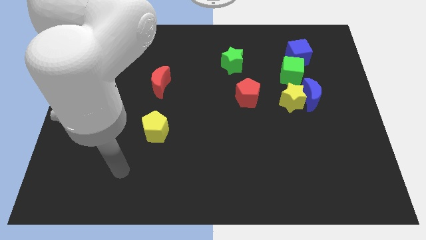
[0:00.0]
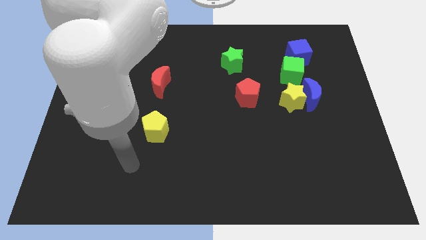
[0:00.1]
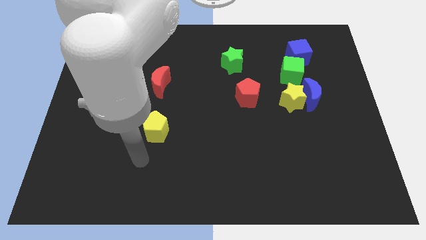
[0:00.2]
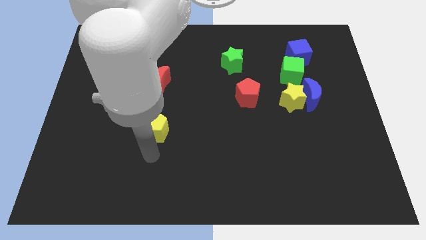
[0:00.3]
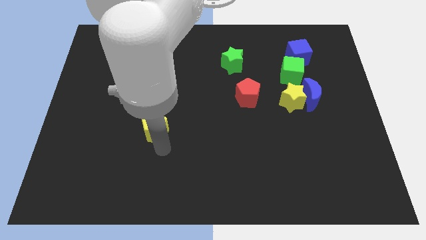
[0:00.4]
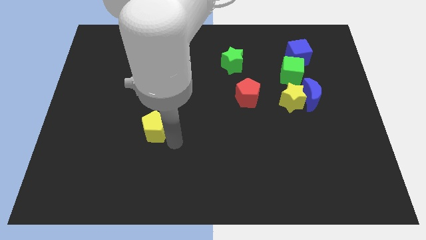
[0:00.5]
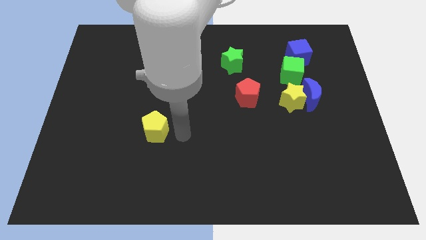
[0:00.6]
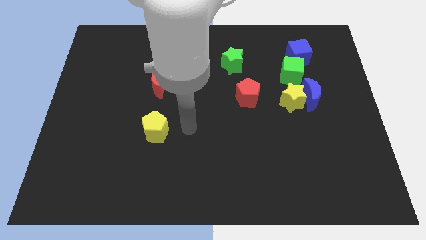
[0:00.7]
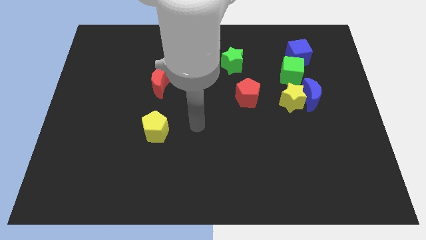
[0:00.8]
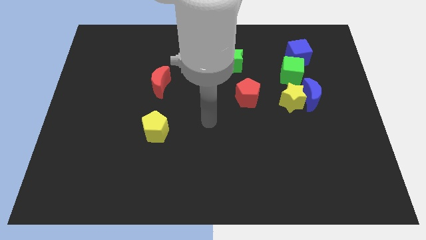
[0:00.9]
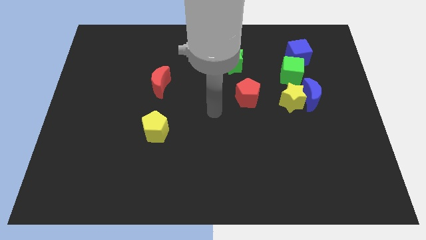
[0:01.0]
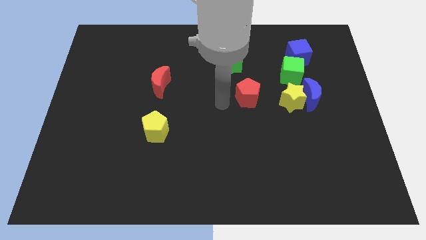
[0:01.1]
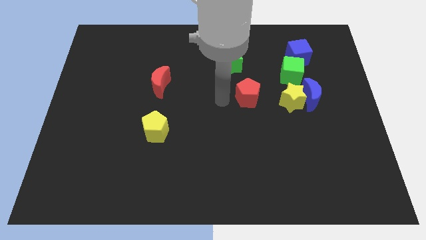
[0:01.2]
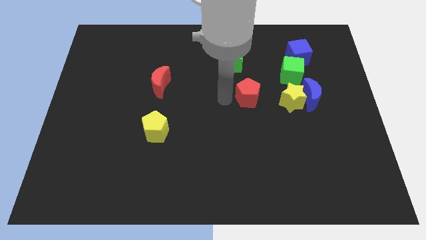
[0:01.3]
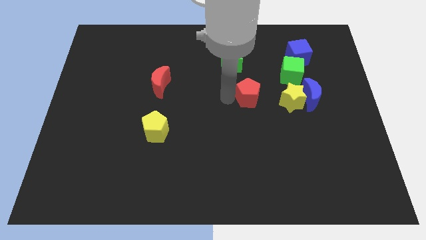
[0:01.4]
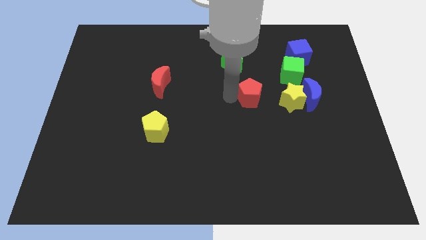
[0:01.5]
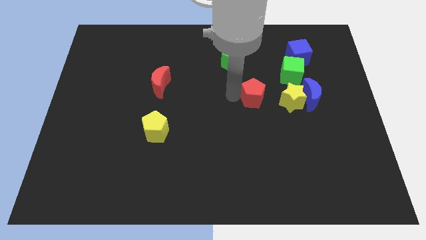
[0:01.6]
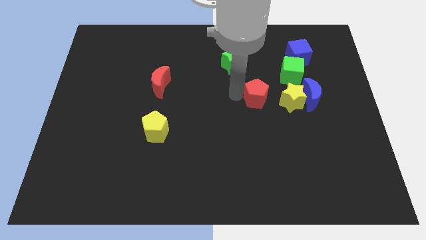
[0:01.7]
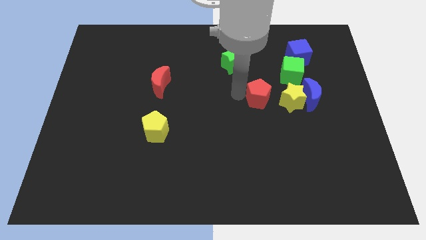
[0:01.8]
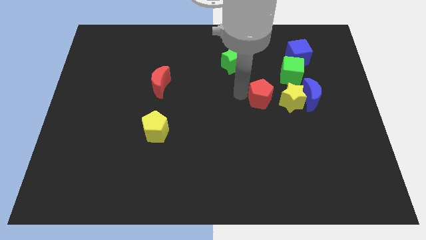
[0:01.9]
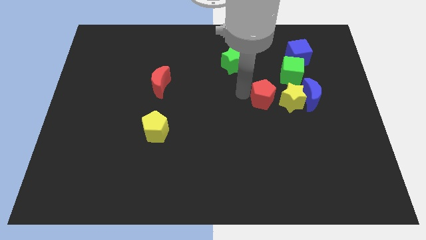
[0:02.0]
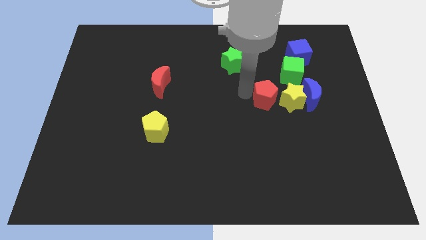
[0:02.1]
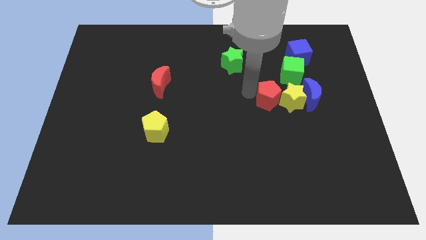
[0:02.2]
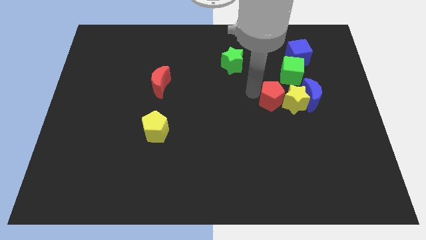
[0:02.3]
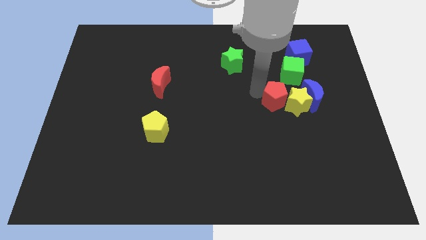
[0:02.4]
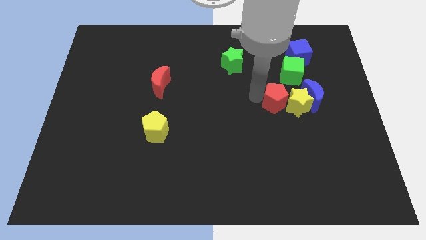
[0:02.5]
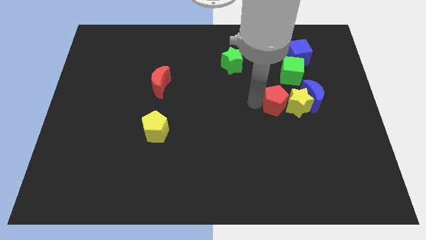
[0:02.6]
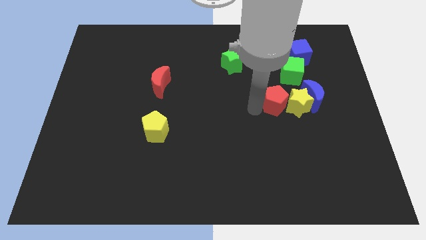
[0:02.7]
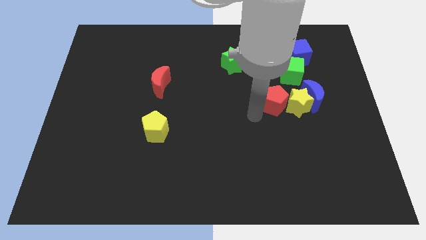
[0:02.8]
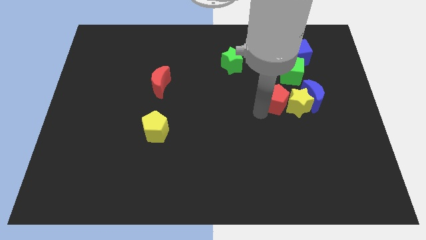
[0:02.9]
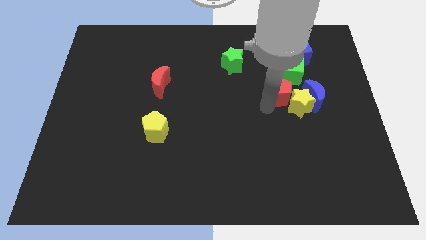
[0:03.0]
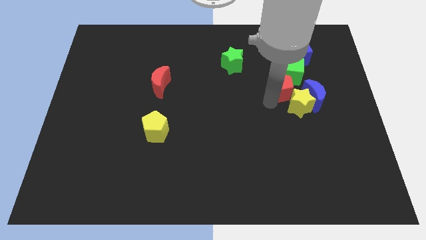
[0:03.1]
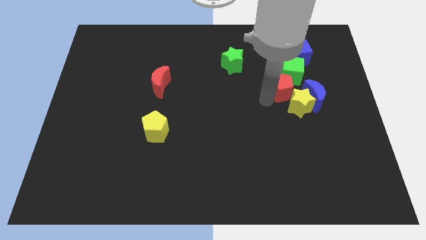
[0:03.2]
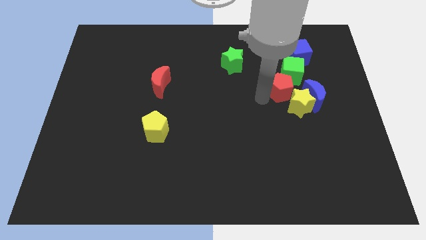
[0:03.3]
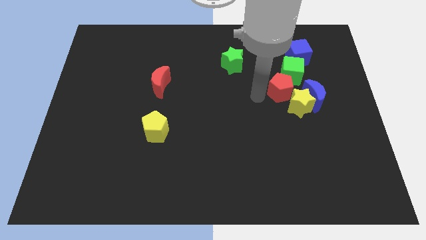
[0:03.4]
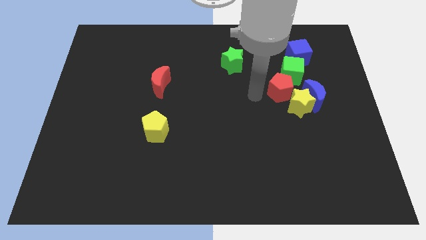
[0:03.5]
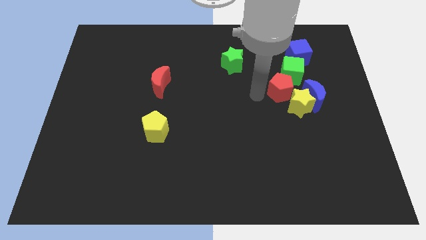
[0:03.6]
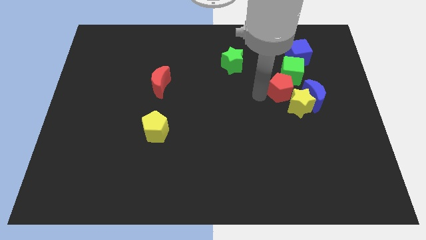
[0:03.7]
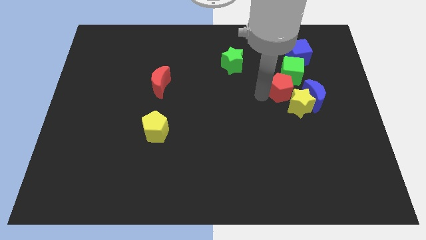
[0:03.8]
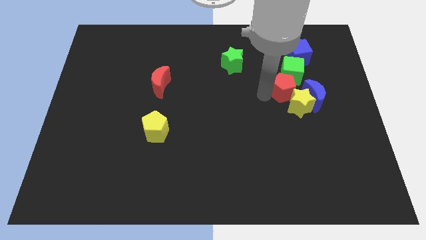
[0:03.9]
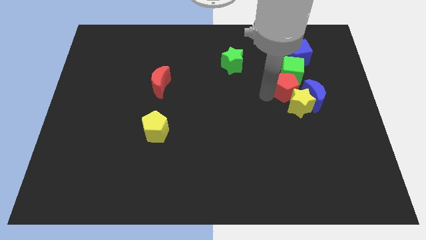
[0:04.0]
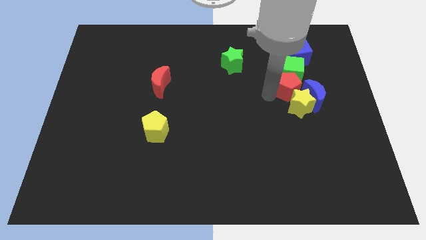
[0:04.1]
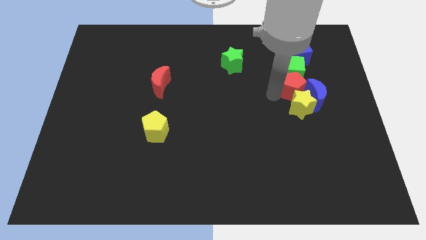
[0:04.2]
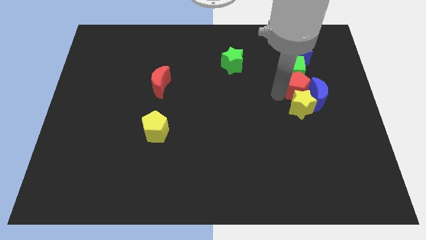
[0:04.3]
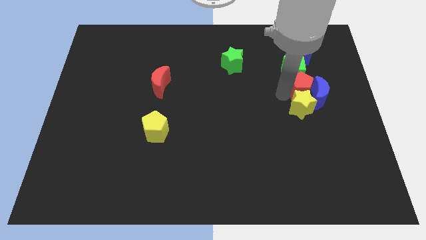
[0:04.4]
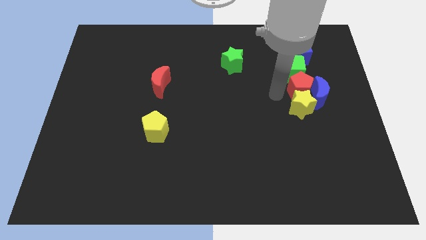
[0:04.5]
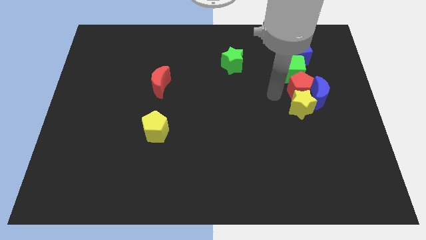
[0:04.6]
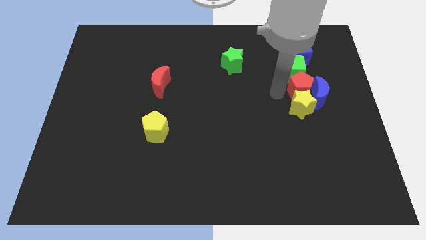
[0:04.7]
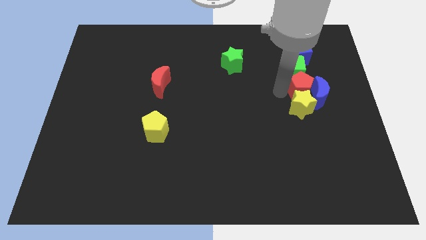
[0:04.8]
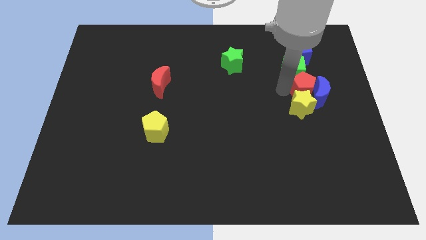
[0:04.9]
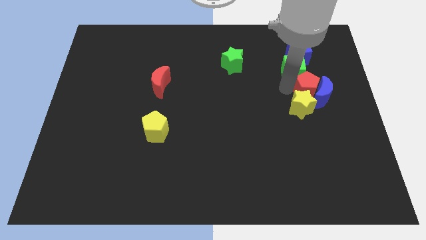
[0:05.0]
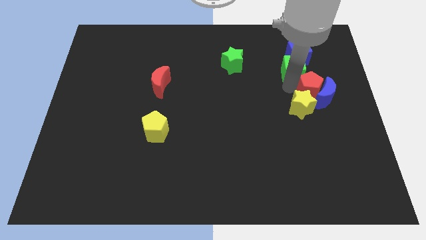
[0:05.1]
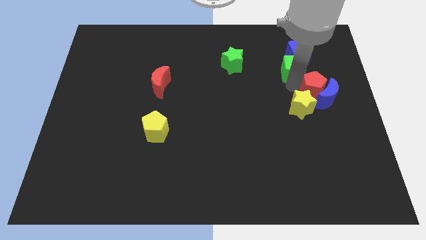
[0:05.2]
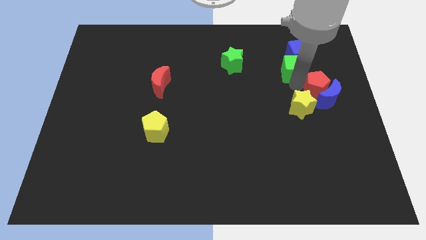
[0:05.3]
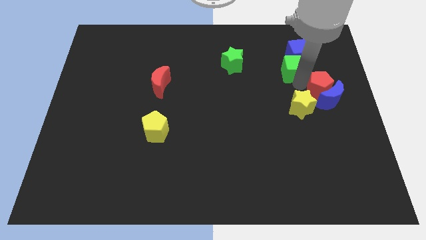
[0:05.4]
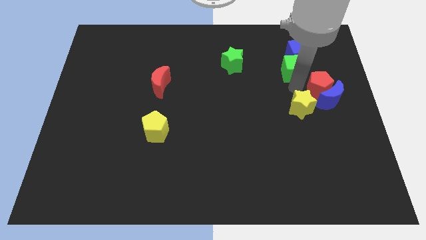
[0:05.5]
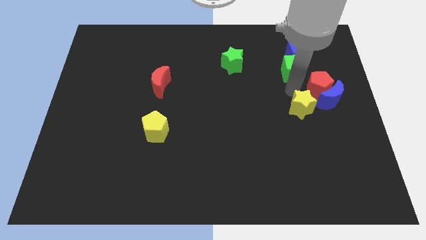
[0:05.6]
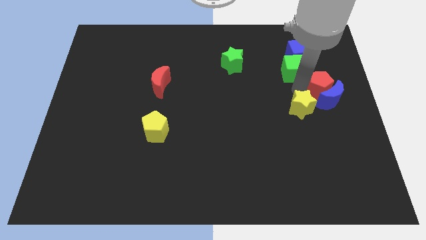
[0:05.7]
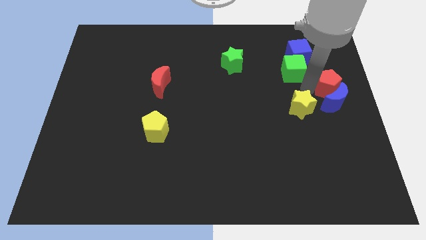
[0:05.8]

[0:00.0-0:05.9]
move the red pentagon diagonally up and to the right of the blue moon

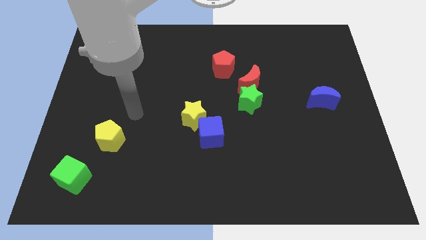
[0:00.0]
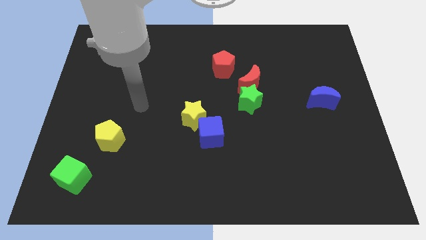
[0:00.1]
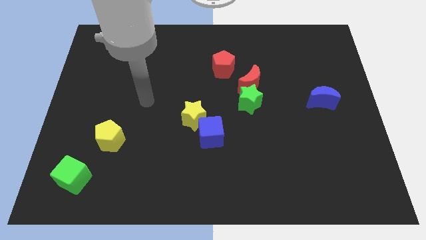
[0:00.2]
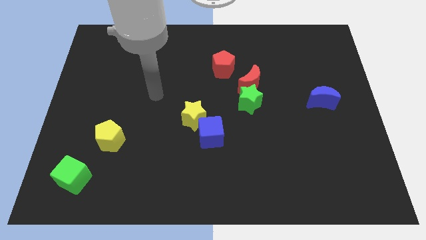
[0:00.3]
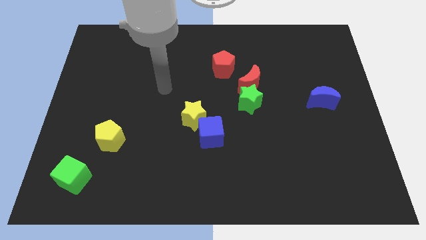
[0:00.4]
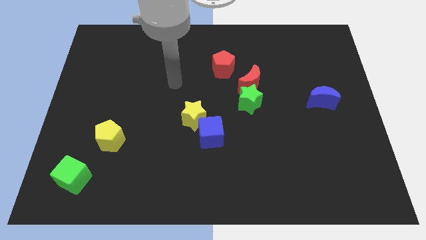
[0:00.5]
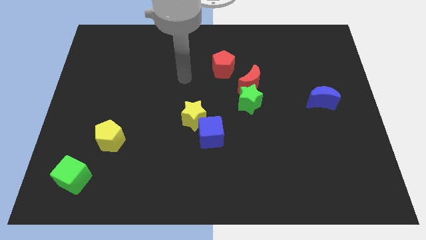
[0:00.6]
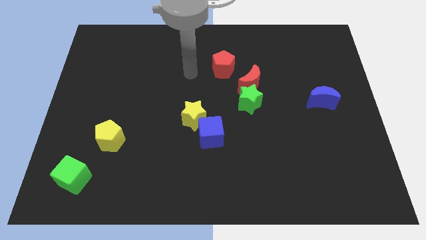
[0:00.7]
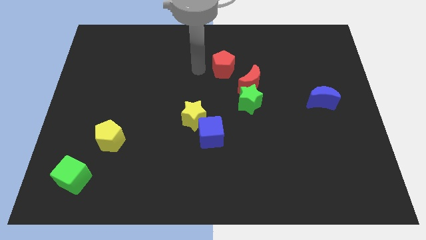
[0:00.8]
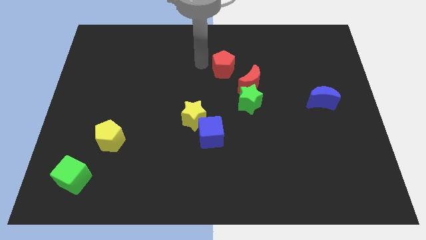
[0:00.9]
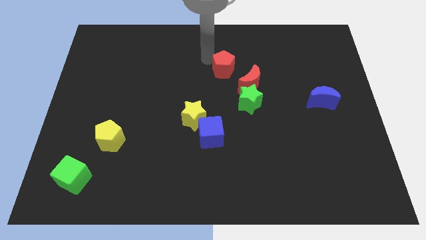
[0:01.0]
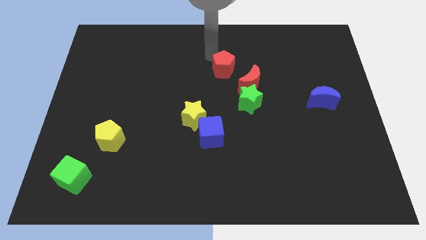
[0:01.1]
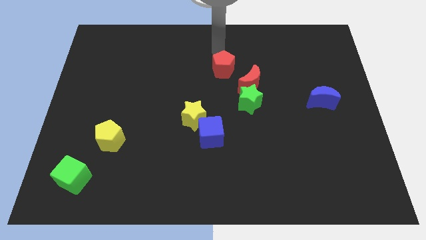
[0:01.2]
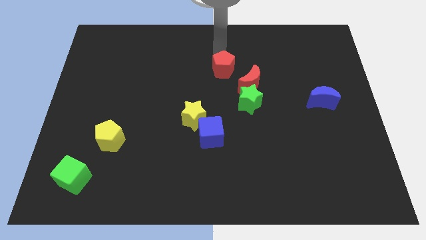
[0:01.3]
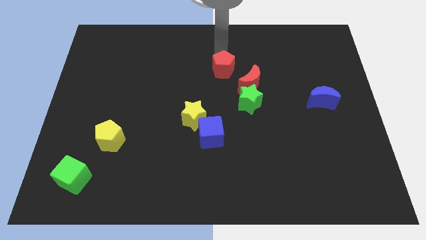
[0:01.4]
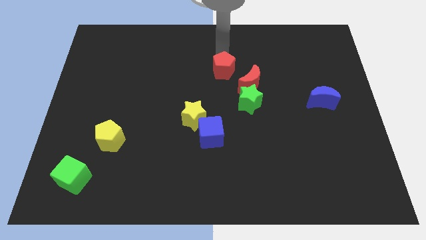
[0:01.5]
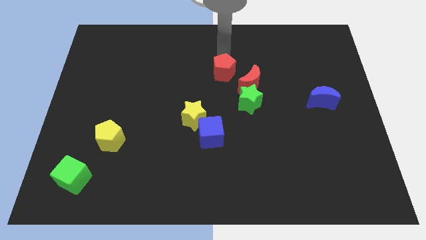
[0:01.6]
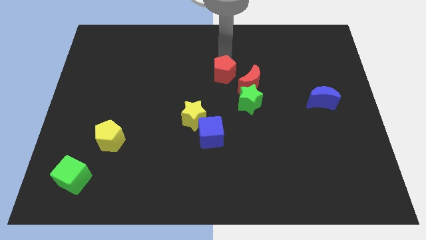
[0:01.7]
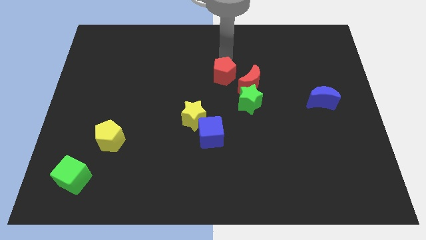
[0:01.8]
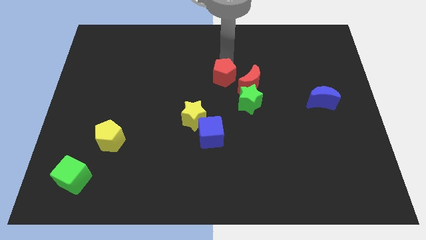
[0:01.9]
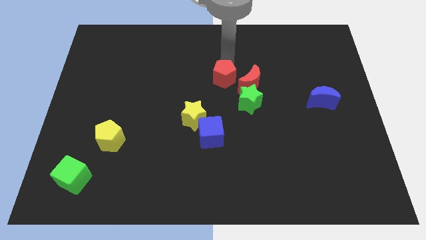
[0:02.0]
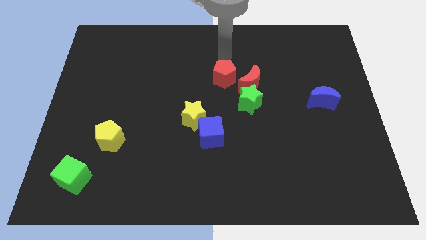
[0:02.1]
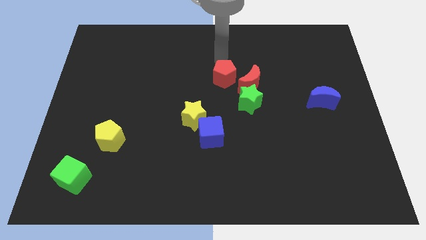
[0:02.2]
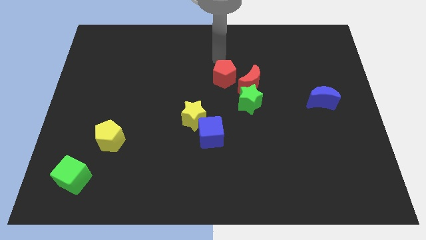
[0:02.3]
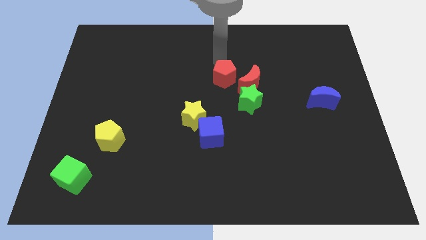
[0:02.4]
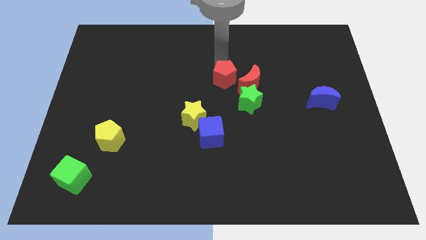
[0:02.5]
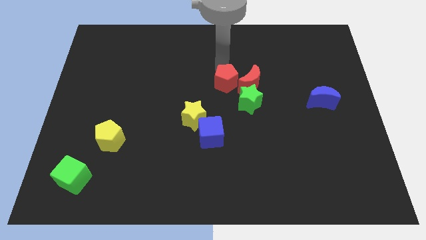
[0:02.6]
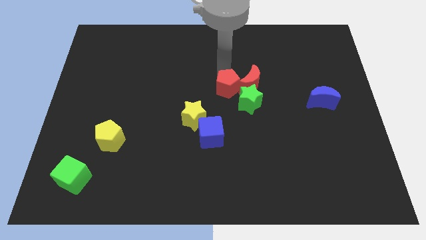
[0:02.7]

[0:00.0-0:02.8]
slide the red pentagon to the bottom left side of the red moon

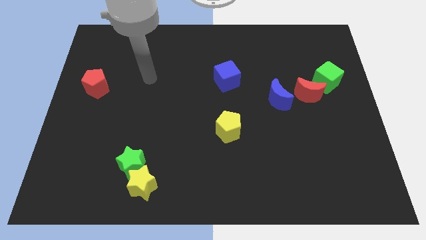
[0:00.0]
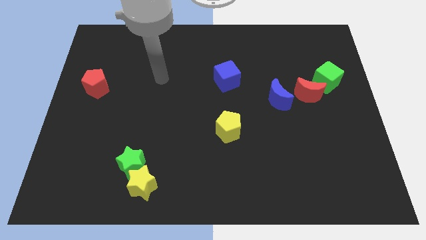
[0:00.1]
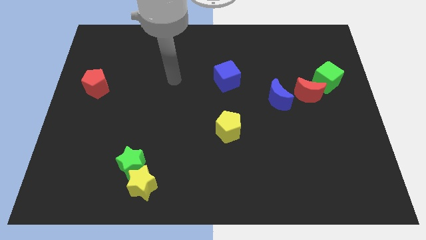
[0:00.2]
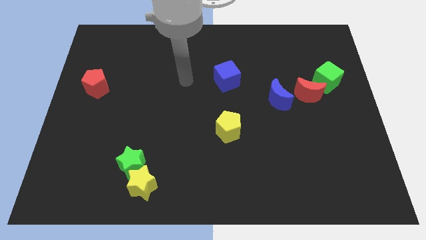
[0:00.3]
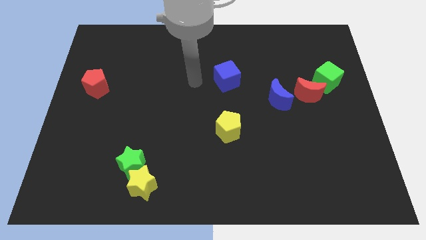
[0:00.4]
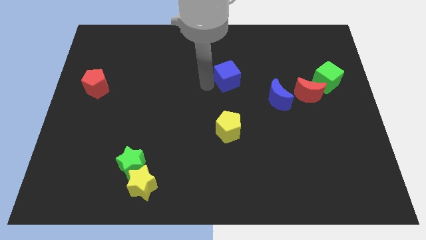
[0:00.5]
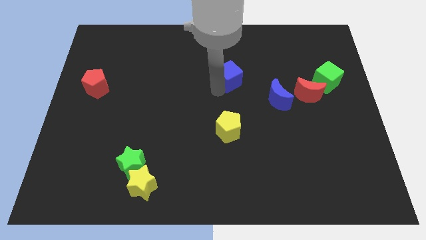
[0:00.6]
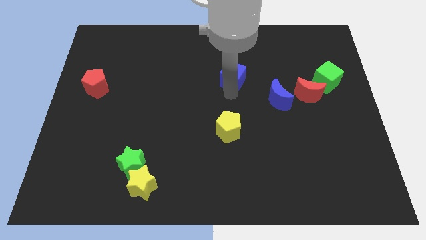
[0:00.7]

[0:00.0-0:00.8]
put the blue moon to the bottom right of the blue cube
